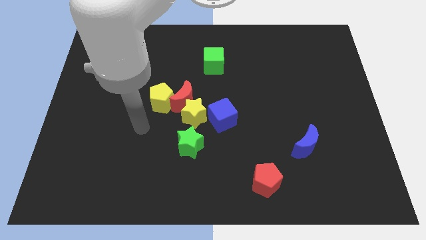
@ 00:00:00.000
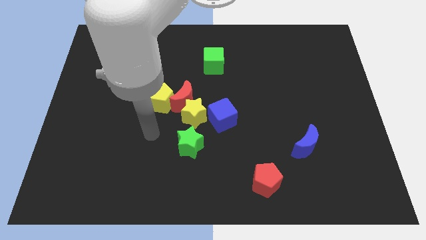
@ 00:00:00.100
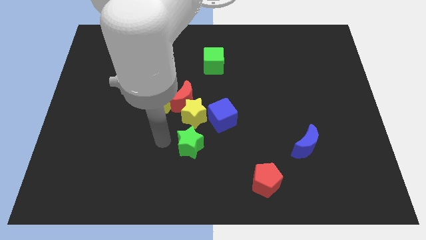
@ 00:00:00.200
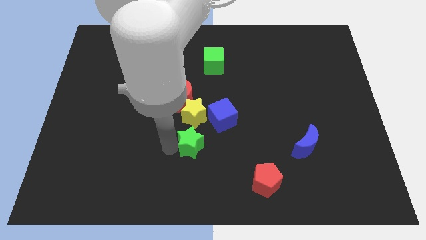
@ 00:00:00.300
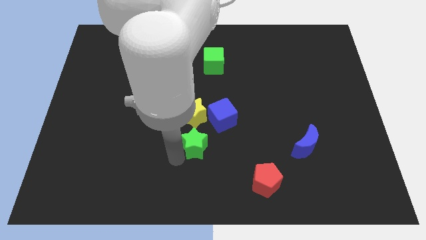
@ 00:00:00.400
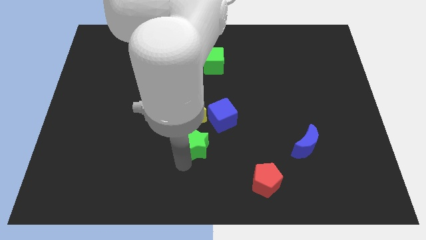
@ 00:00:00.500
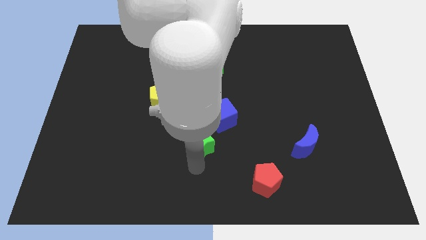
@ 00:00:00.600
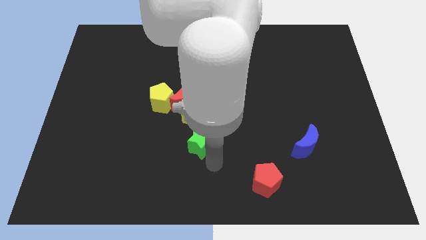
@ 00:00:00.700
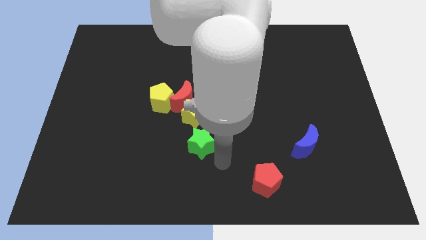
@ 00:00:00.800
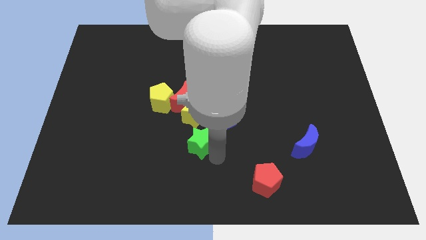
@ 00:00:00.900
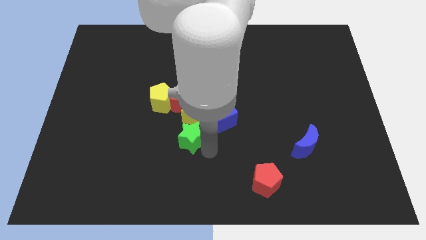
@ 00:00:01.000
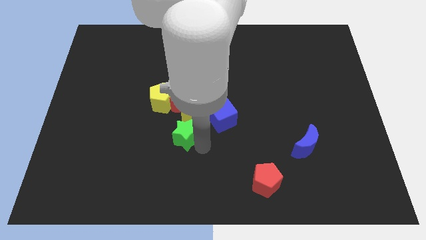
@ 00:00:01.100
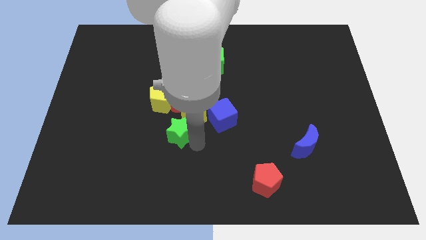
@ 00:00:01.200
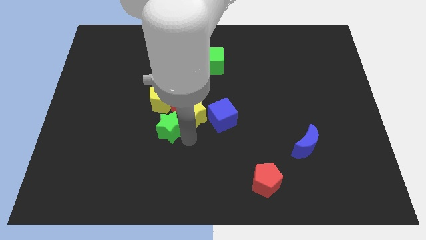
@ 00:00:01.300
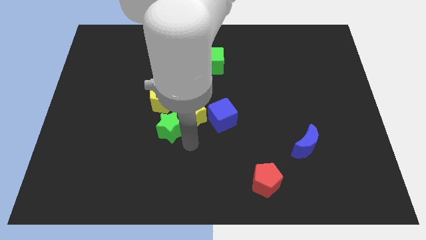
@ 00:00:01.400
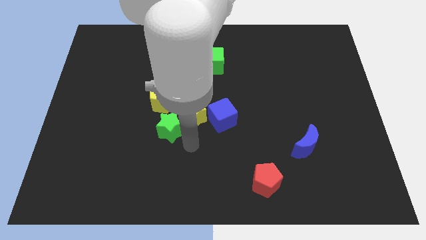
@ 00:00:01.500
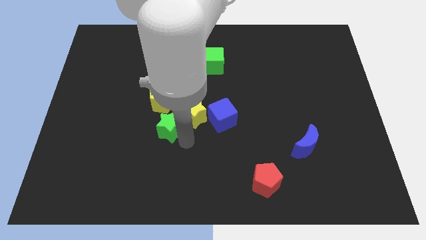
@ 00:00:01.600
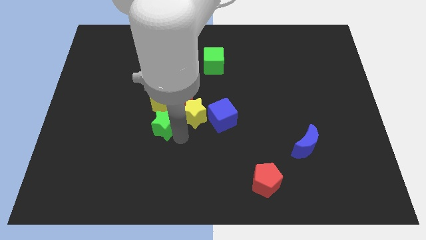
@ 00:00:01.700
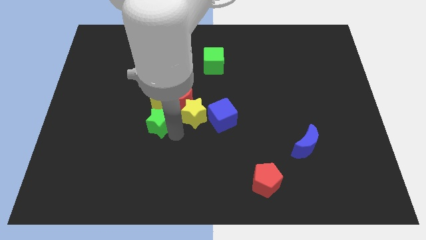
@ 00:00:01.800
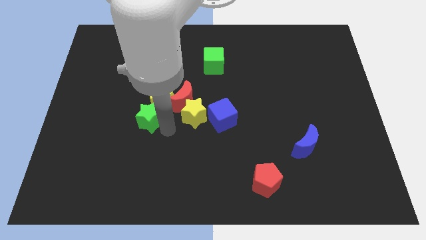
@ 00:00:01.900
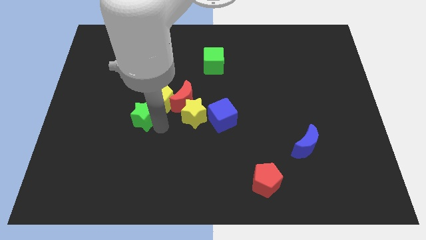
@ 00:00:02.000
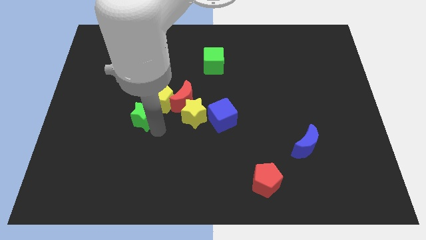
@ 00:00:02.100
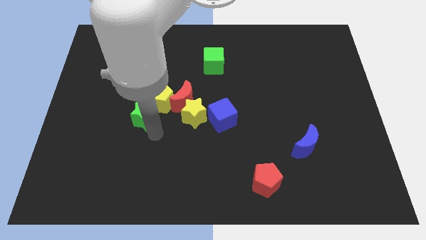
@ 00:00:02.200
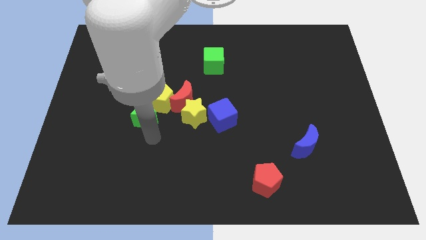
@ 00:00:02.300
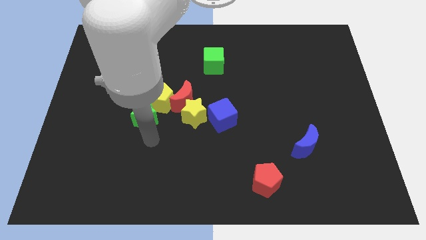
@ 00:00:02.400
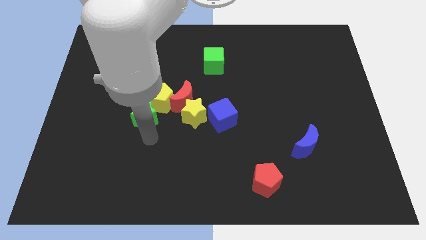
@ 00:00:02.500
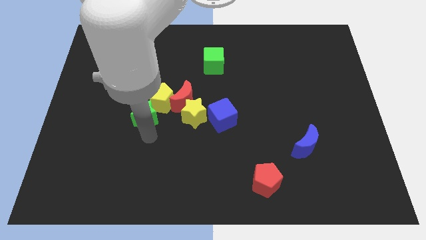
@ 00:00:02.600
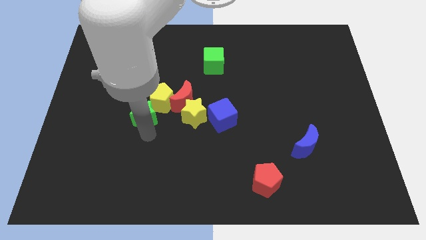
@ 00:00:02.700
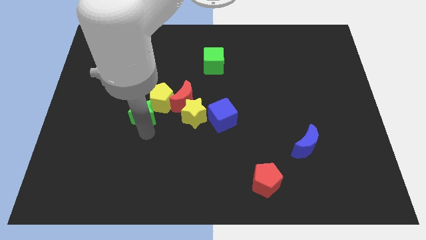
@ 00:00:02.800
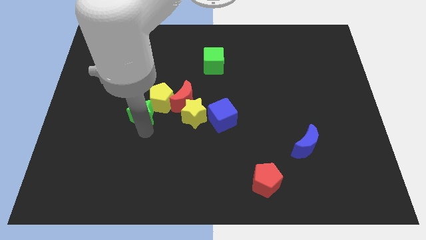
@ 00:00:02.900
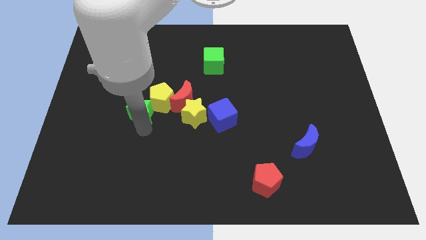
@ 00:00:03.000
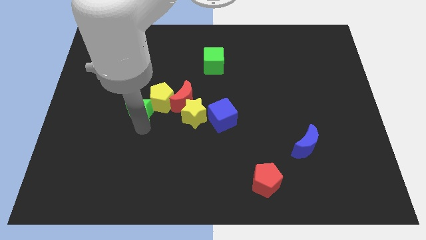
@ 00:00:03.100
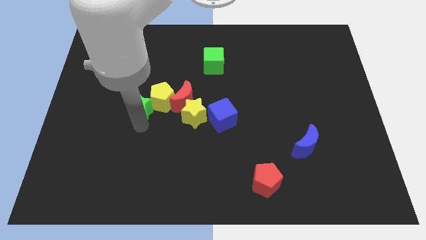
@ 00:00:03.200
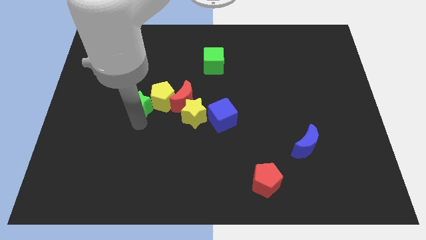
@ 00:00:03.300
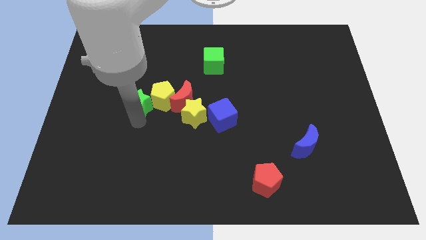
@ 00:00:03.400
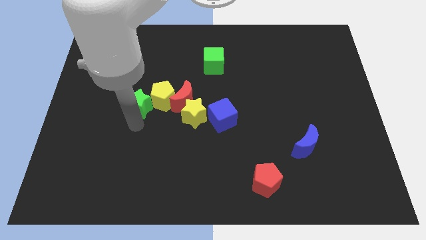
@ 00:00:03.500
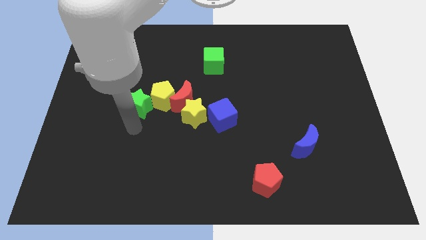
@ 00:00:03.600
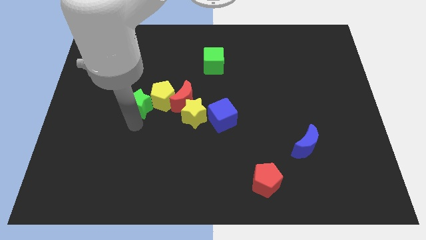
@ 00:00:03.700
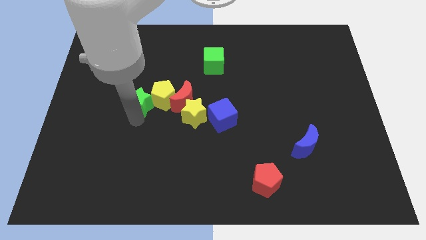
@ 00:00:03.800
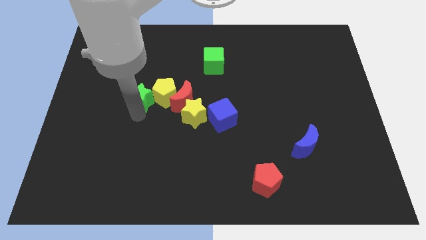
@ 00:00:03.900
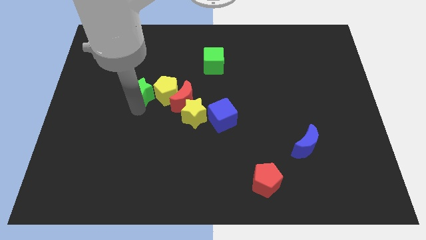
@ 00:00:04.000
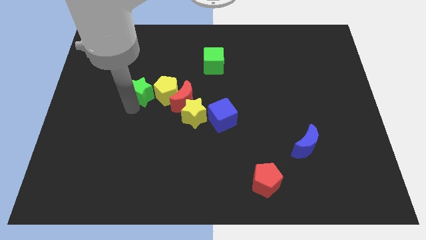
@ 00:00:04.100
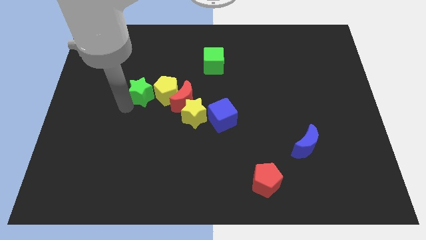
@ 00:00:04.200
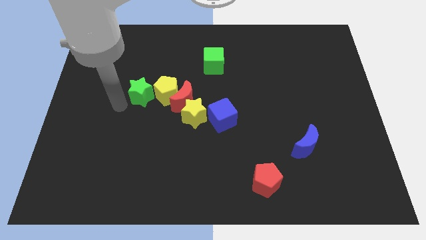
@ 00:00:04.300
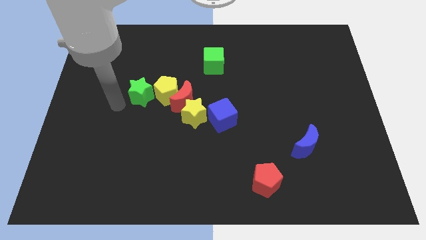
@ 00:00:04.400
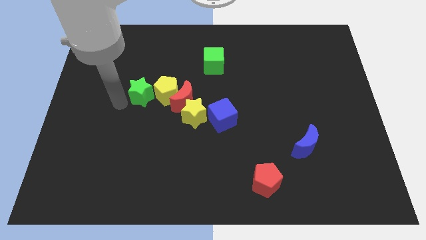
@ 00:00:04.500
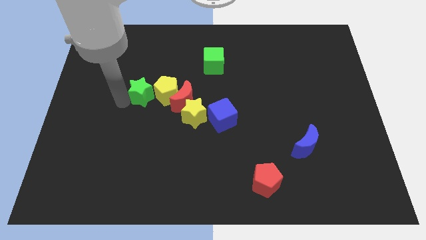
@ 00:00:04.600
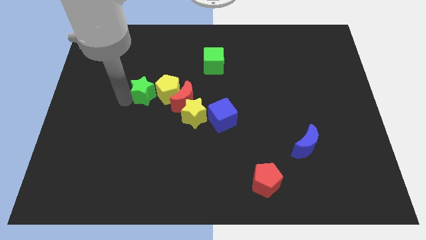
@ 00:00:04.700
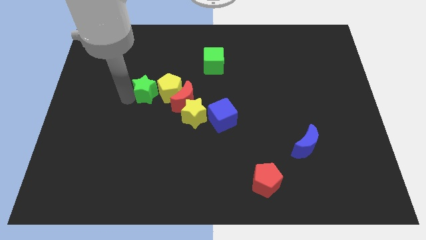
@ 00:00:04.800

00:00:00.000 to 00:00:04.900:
slide the green star diagonally up and to the left of the red moon

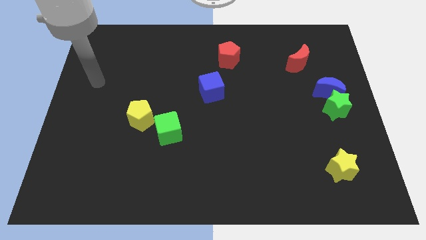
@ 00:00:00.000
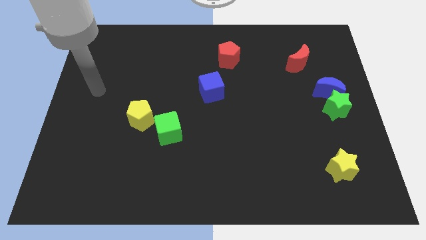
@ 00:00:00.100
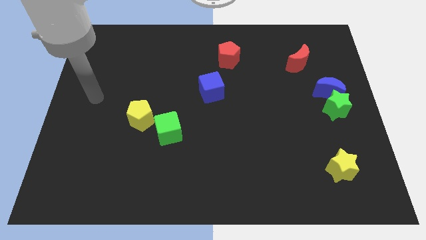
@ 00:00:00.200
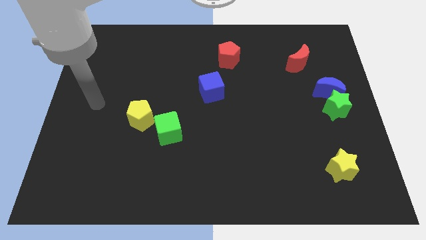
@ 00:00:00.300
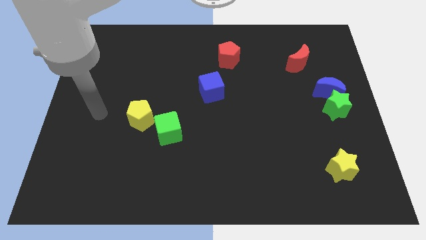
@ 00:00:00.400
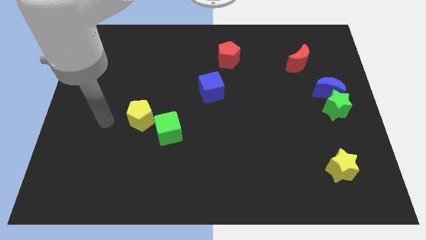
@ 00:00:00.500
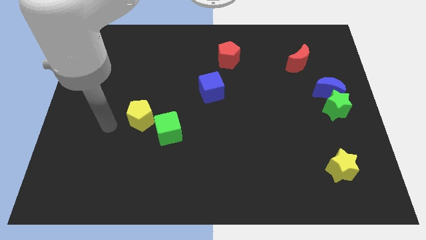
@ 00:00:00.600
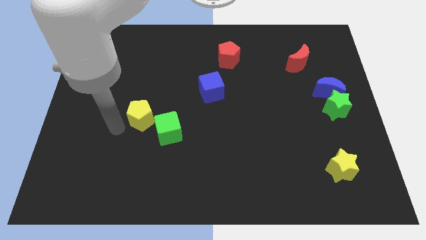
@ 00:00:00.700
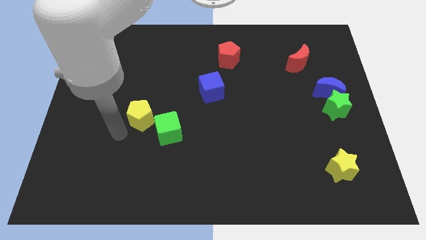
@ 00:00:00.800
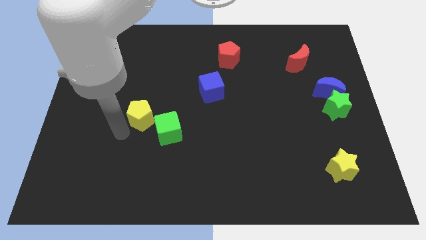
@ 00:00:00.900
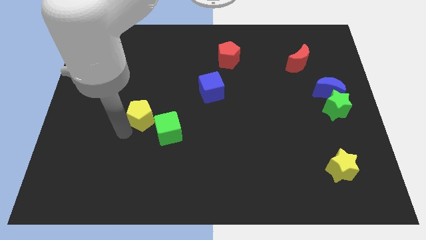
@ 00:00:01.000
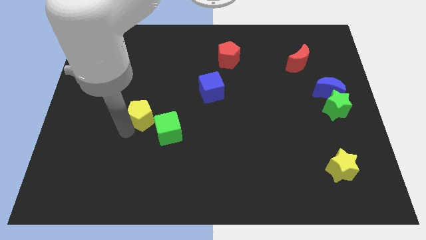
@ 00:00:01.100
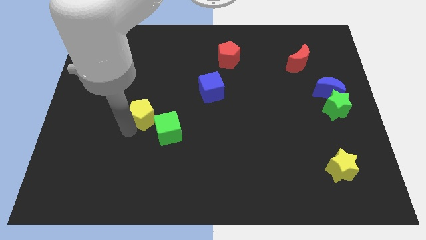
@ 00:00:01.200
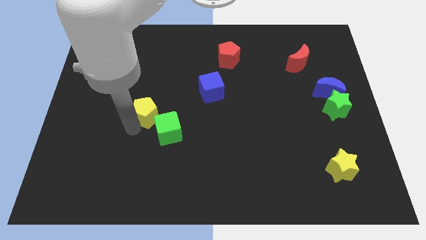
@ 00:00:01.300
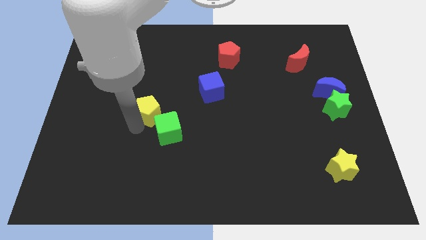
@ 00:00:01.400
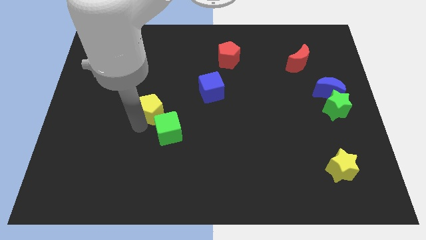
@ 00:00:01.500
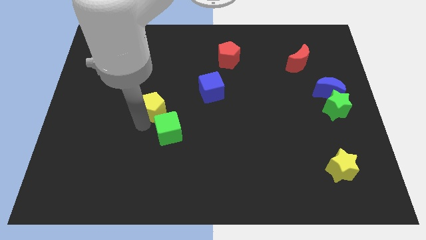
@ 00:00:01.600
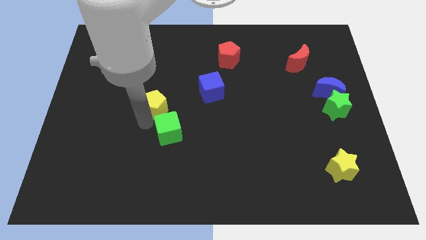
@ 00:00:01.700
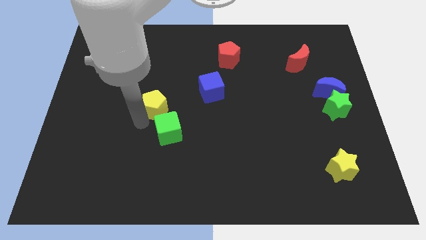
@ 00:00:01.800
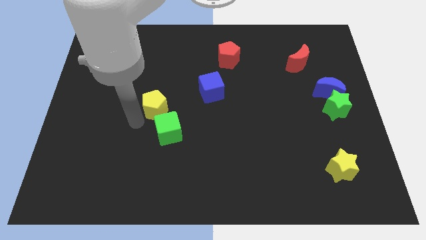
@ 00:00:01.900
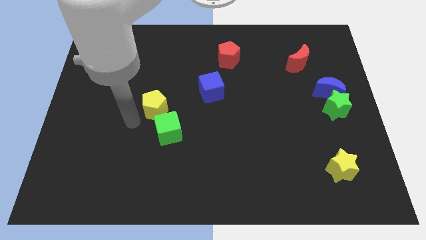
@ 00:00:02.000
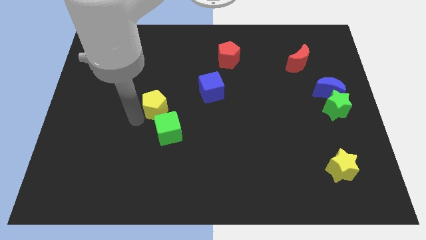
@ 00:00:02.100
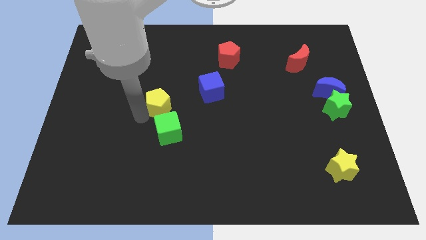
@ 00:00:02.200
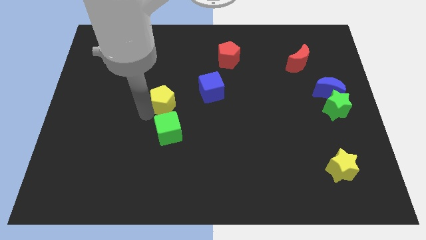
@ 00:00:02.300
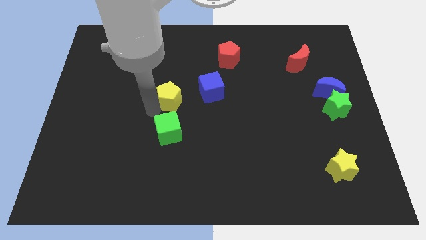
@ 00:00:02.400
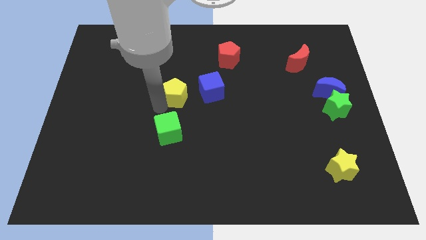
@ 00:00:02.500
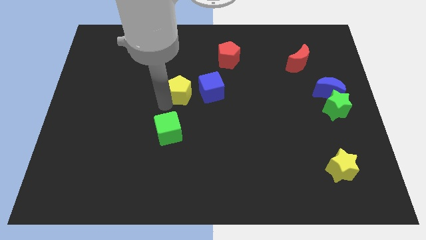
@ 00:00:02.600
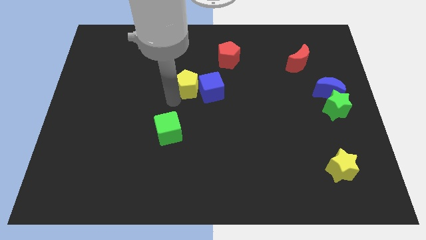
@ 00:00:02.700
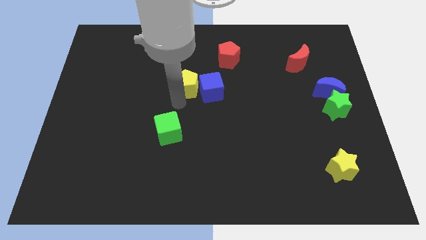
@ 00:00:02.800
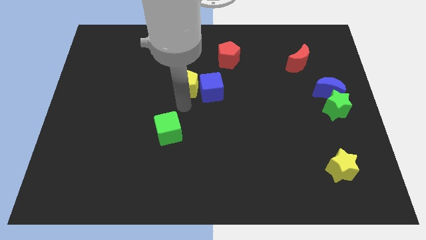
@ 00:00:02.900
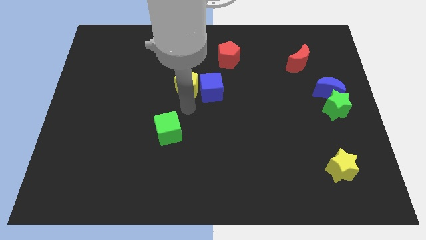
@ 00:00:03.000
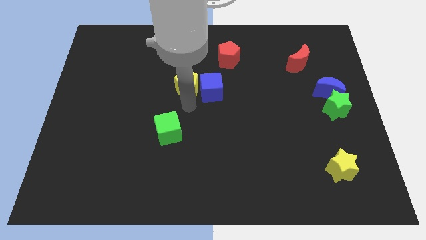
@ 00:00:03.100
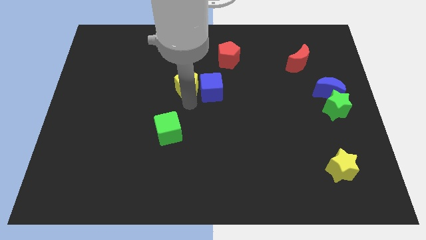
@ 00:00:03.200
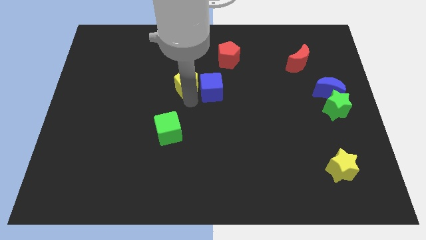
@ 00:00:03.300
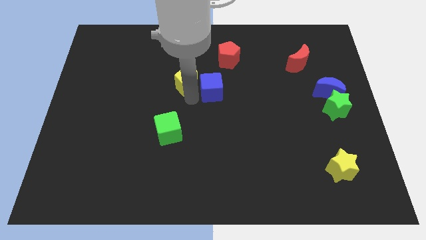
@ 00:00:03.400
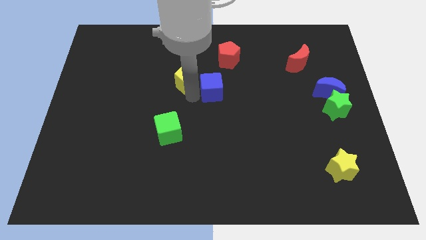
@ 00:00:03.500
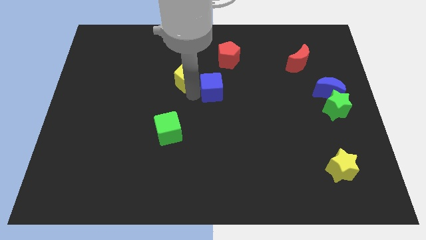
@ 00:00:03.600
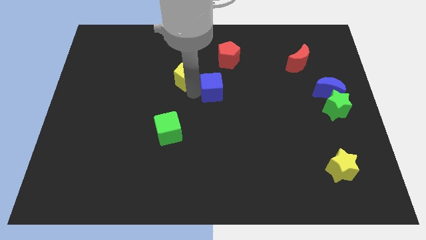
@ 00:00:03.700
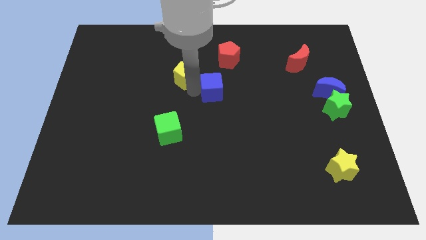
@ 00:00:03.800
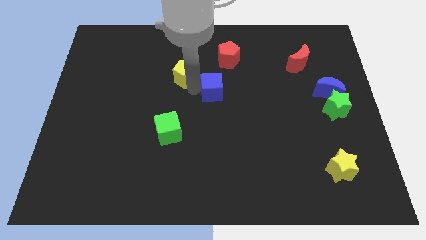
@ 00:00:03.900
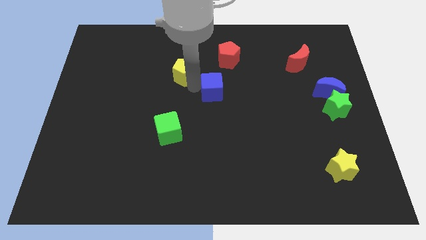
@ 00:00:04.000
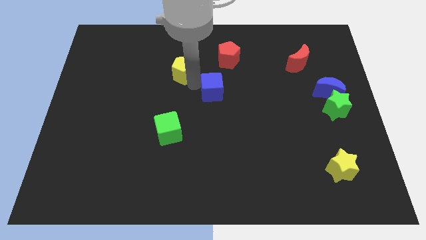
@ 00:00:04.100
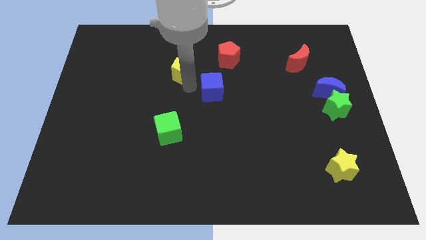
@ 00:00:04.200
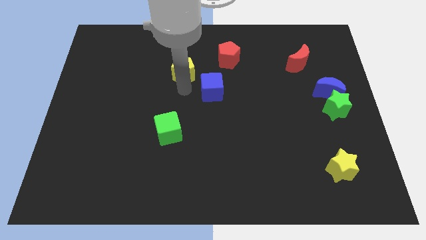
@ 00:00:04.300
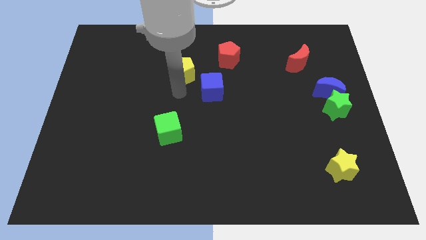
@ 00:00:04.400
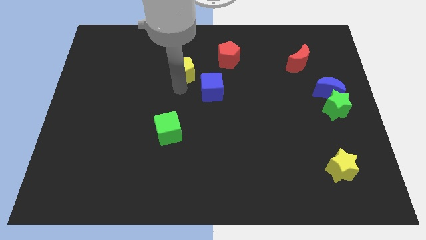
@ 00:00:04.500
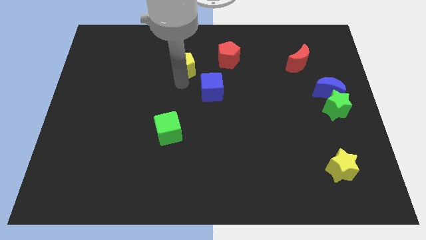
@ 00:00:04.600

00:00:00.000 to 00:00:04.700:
slide the yellow pentagon just left of the red pentagon
